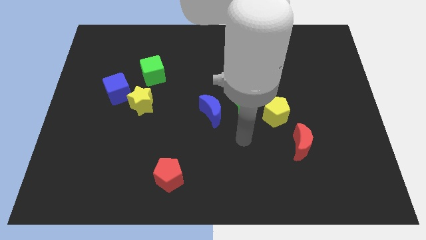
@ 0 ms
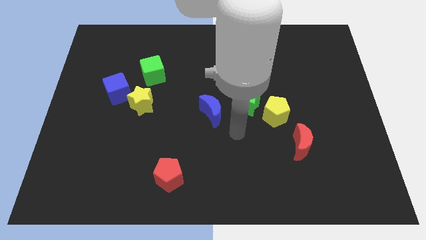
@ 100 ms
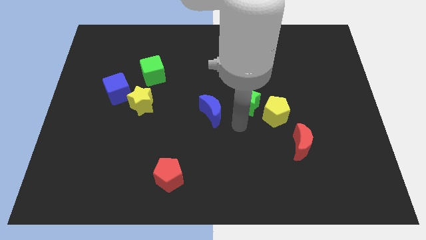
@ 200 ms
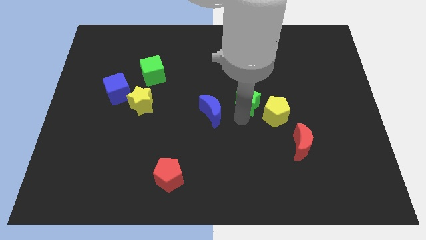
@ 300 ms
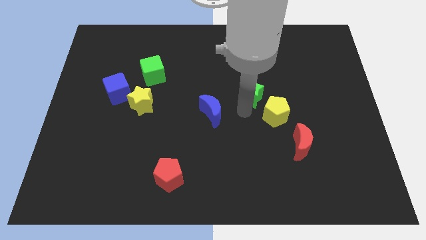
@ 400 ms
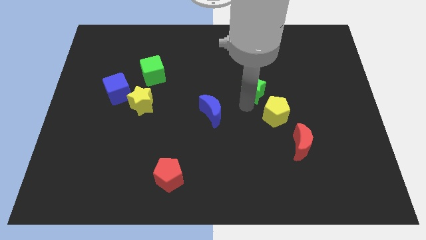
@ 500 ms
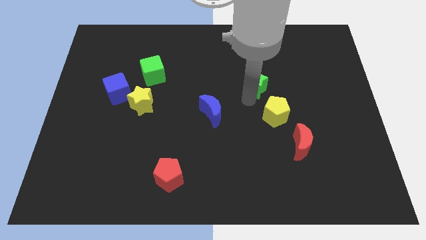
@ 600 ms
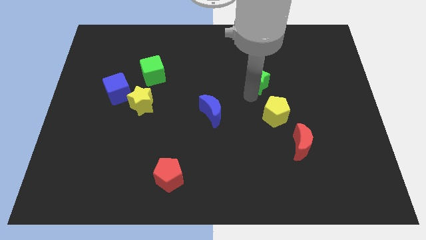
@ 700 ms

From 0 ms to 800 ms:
separate the green star from the yellow pentagon and blue moon

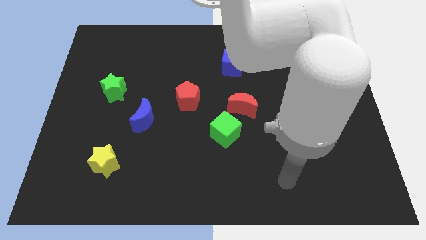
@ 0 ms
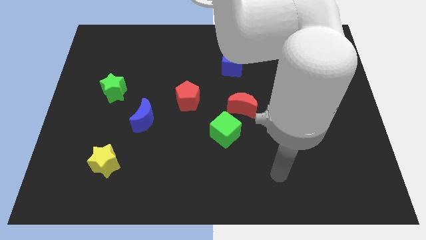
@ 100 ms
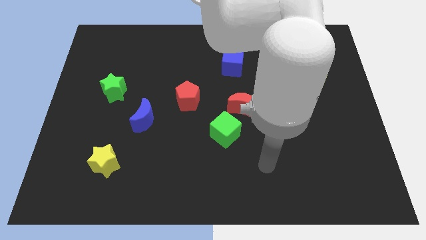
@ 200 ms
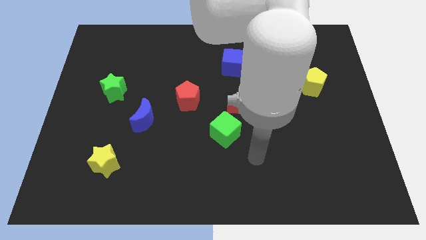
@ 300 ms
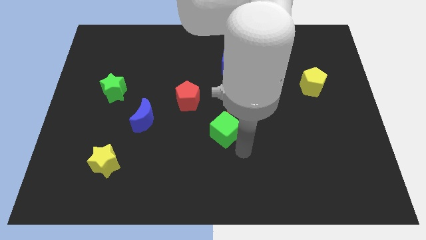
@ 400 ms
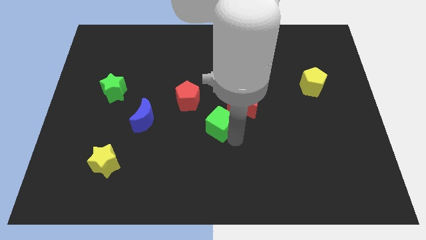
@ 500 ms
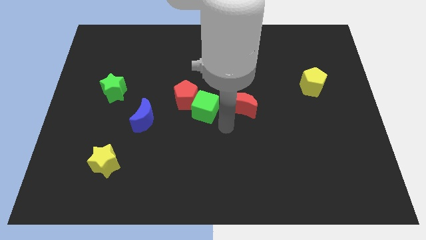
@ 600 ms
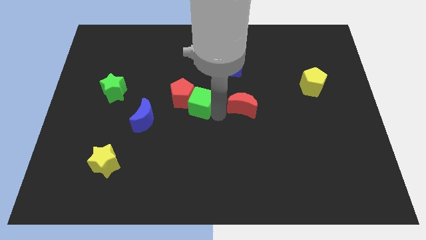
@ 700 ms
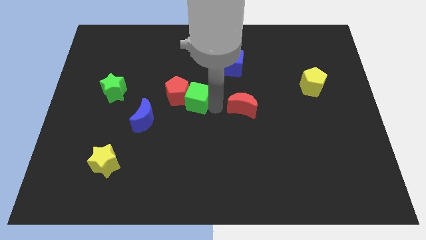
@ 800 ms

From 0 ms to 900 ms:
move the red moon away from the green cube

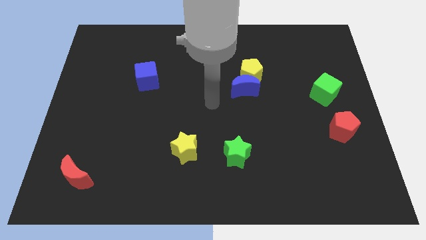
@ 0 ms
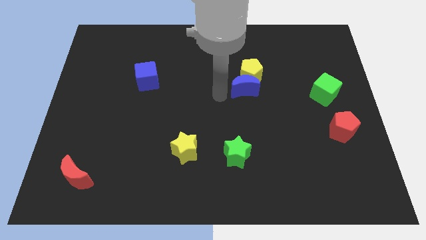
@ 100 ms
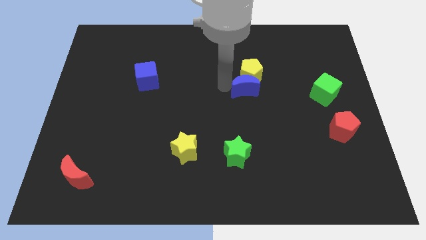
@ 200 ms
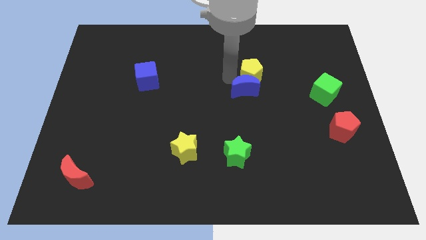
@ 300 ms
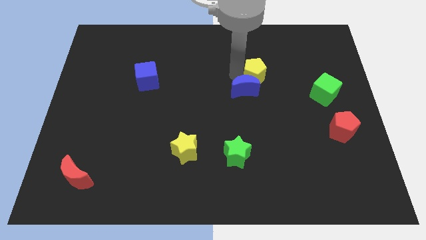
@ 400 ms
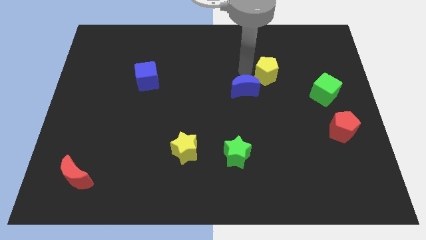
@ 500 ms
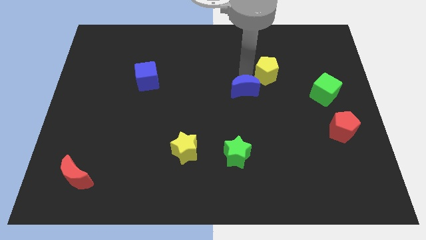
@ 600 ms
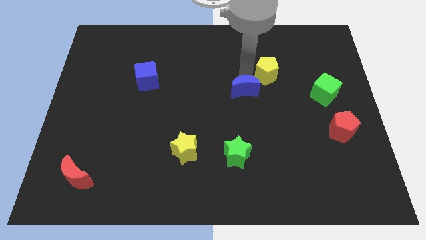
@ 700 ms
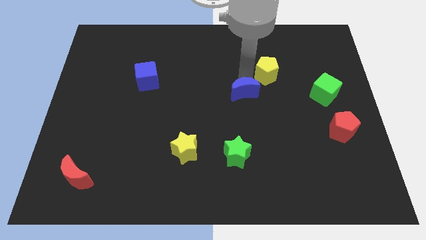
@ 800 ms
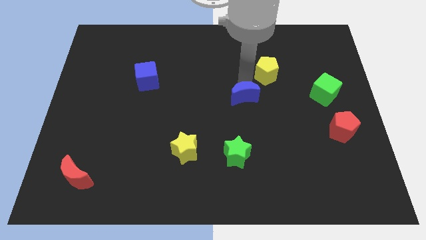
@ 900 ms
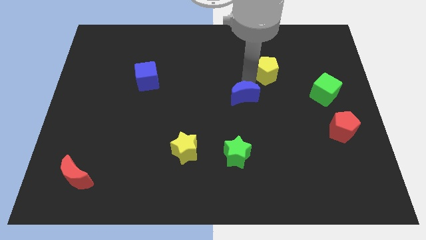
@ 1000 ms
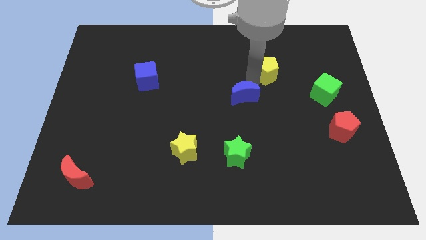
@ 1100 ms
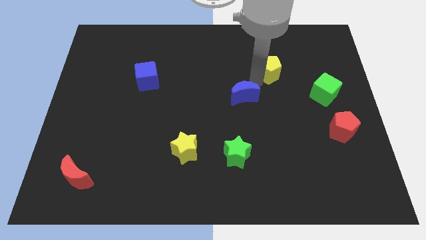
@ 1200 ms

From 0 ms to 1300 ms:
pull the blue moon apart from the yellow pentagon

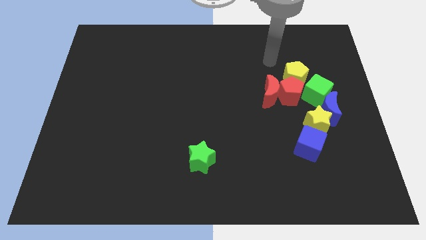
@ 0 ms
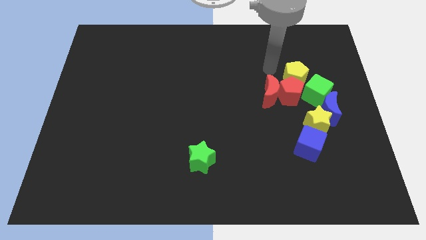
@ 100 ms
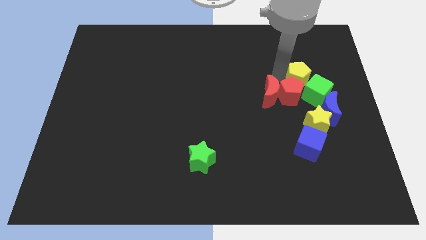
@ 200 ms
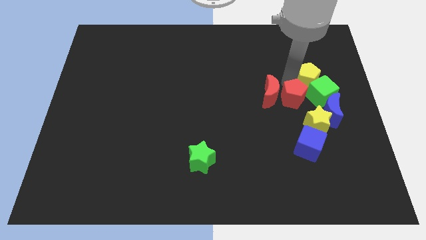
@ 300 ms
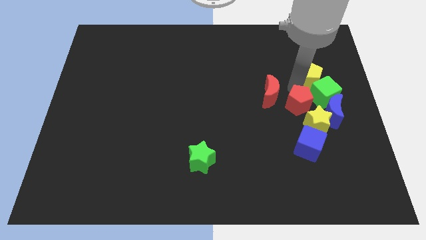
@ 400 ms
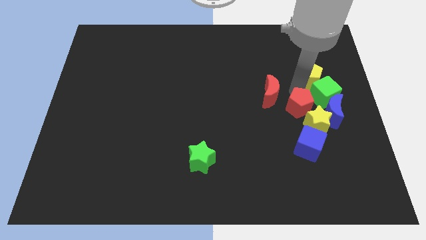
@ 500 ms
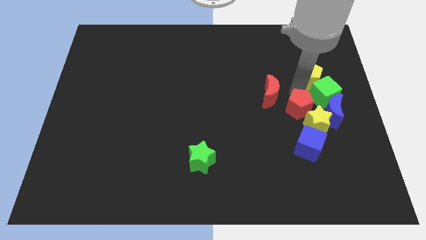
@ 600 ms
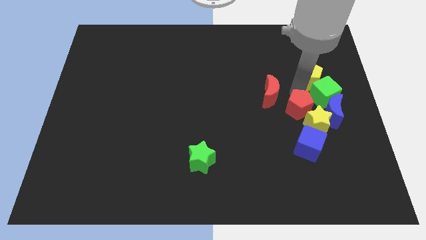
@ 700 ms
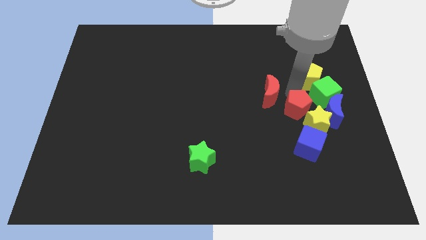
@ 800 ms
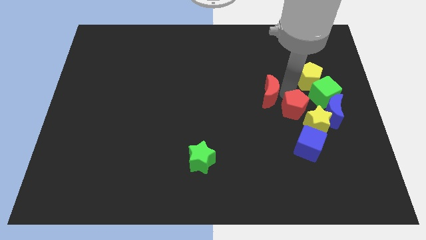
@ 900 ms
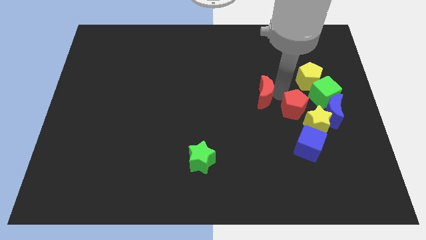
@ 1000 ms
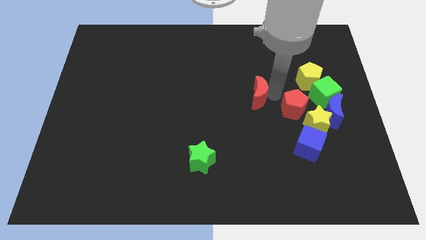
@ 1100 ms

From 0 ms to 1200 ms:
pull the red moon apart from the red pentagon and yellow pentagon

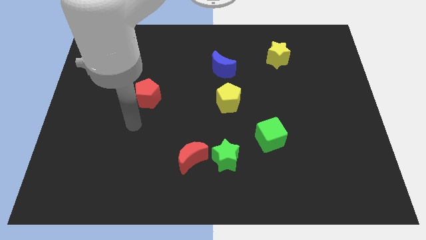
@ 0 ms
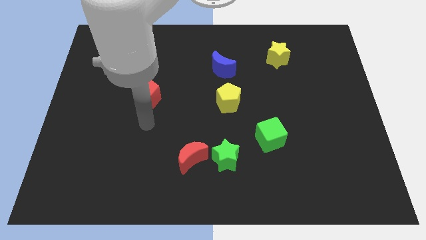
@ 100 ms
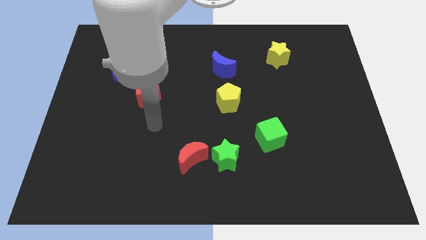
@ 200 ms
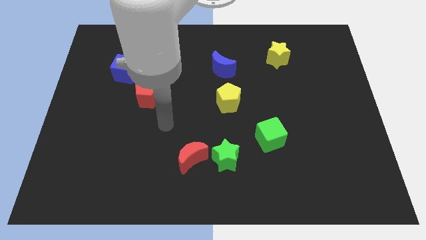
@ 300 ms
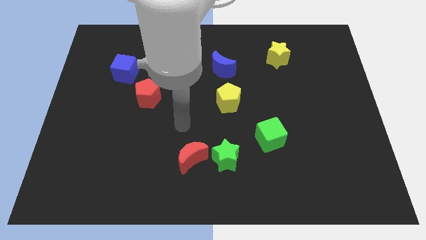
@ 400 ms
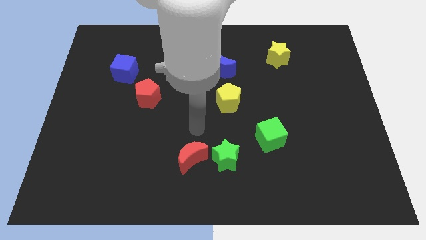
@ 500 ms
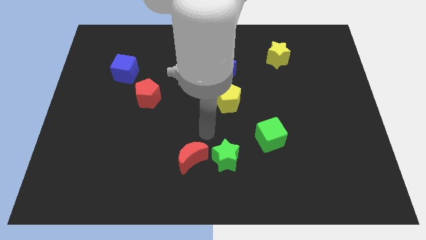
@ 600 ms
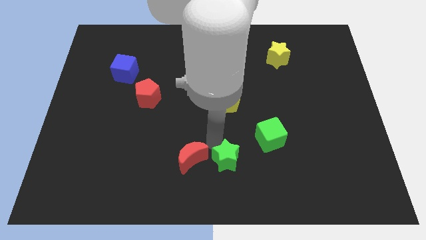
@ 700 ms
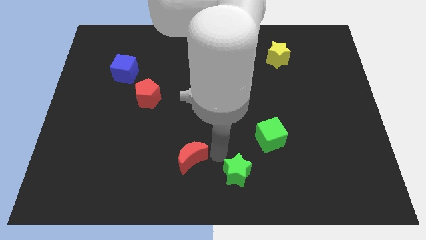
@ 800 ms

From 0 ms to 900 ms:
move the red moon away from the green star

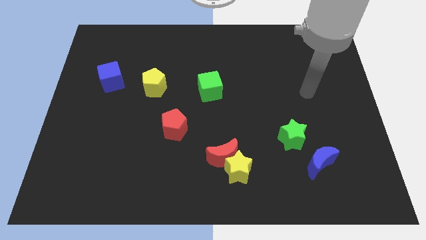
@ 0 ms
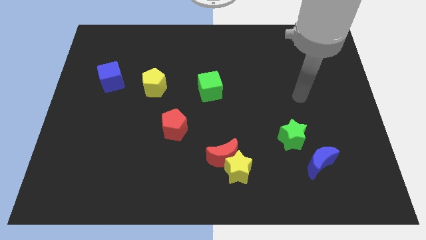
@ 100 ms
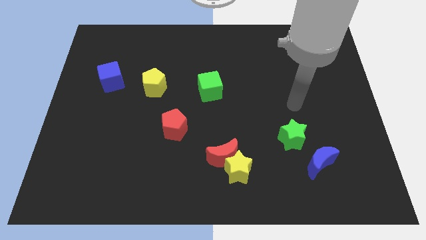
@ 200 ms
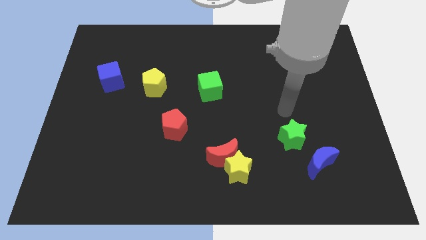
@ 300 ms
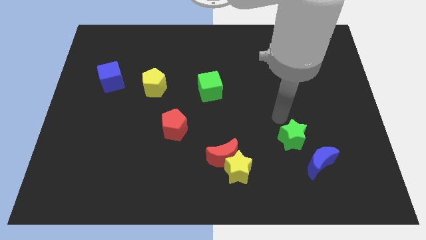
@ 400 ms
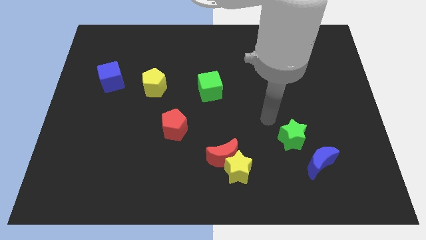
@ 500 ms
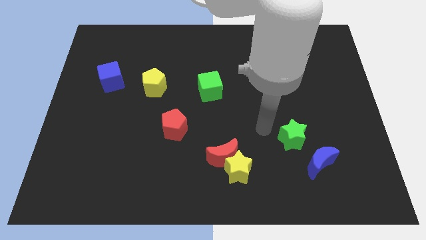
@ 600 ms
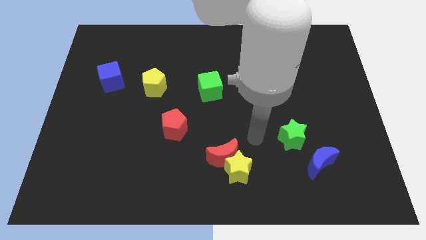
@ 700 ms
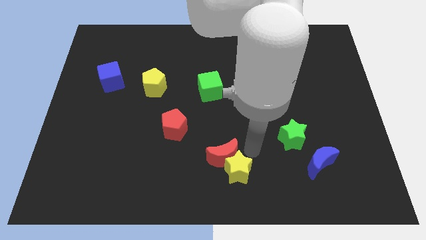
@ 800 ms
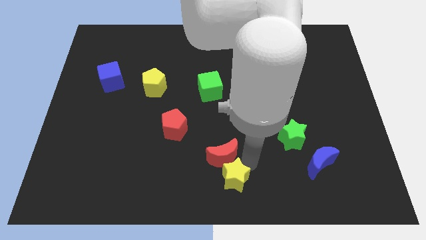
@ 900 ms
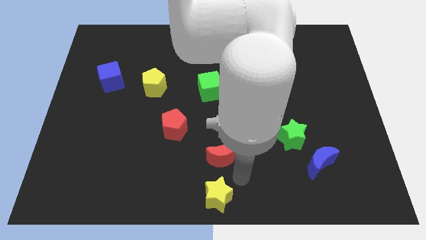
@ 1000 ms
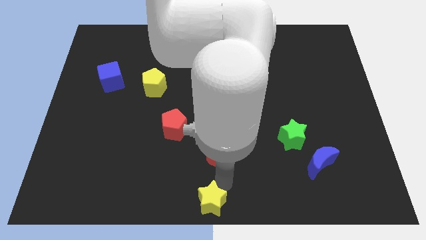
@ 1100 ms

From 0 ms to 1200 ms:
separate the red moon from the yellow star

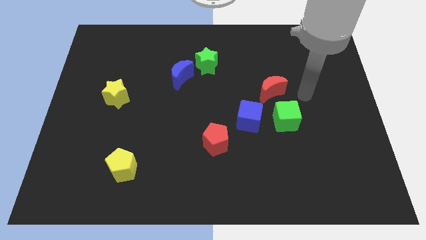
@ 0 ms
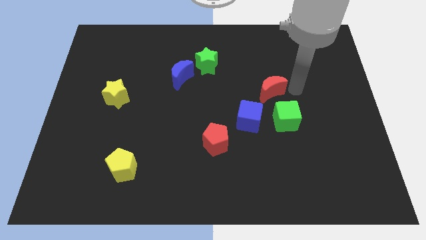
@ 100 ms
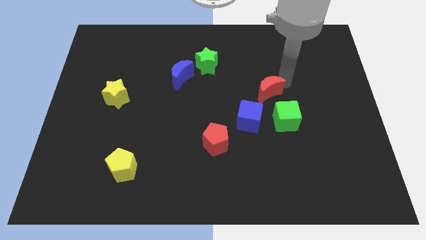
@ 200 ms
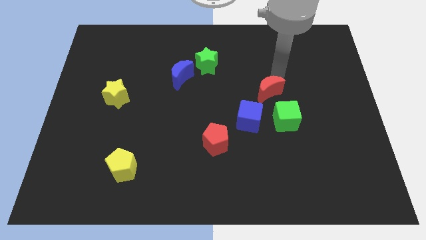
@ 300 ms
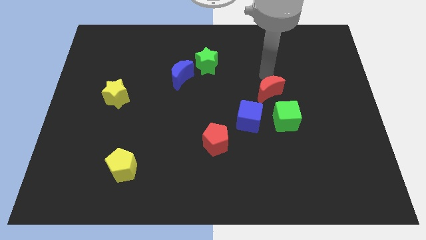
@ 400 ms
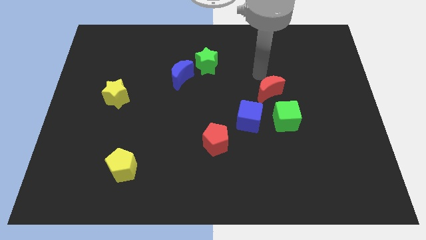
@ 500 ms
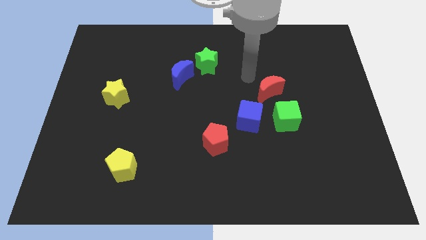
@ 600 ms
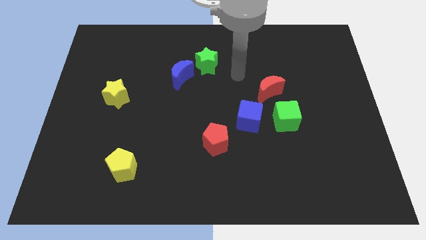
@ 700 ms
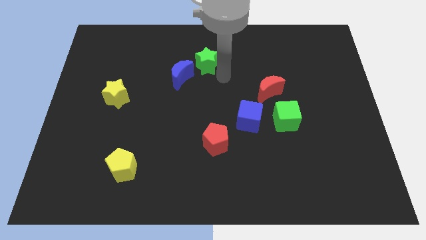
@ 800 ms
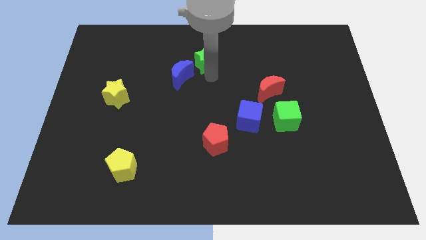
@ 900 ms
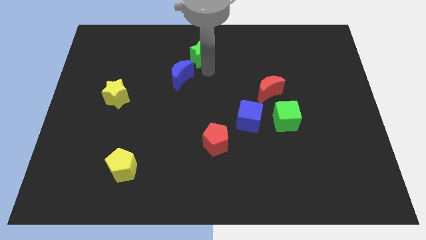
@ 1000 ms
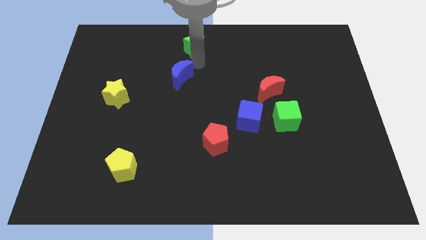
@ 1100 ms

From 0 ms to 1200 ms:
separate the blue moon from the green star

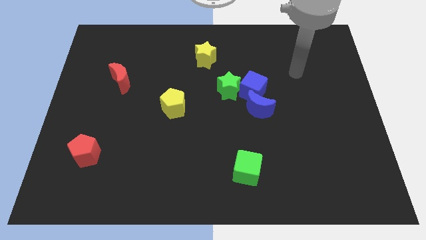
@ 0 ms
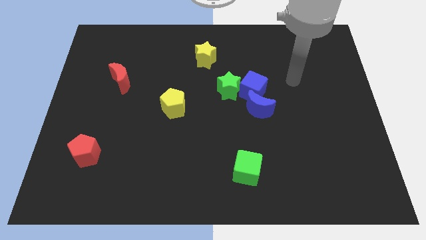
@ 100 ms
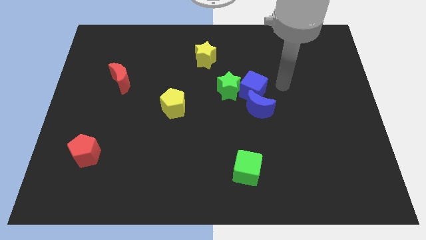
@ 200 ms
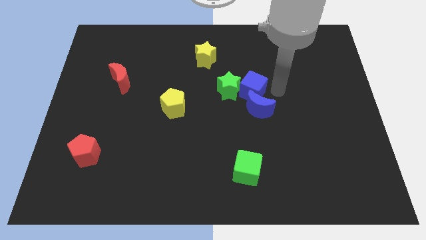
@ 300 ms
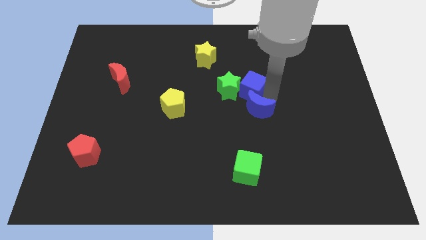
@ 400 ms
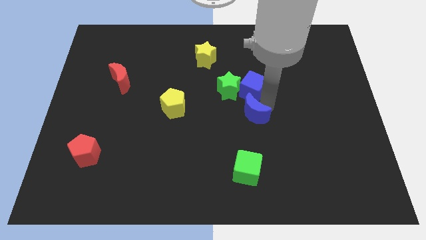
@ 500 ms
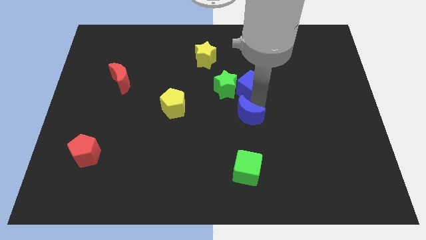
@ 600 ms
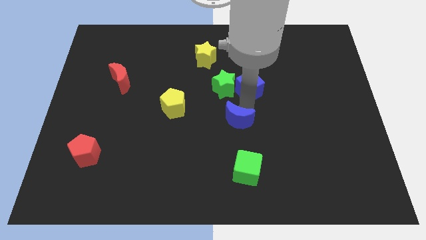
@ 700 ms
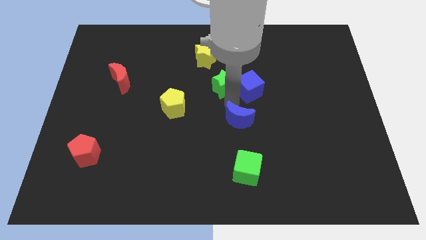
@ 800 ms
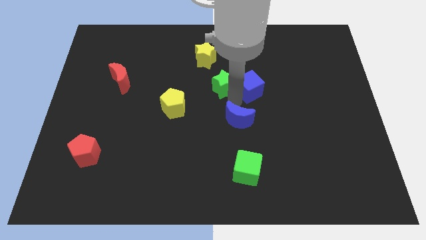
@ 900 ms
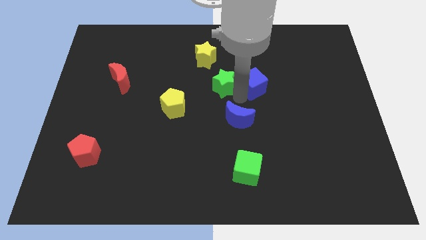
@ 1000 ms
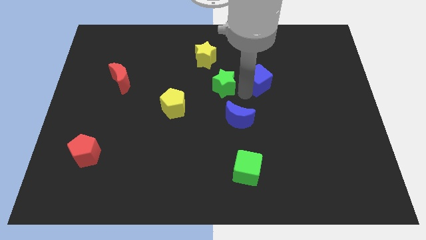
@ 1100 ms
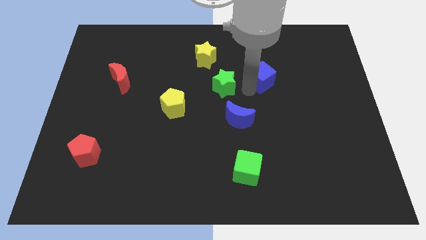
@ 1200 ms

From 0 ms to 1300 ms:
separate the blue cube from the blue moon and green star

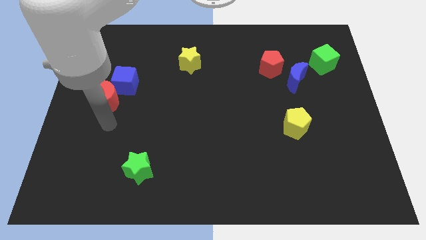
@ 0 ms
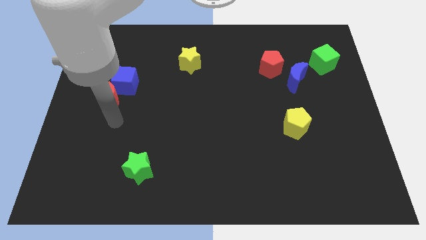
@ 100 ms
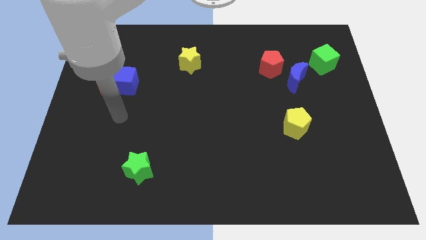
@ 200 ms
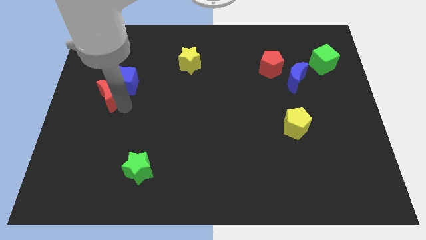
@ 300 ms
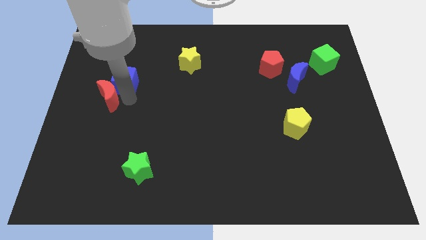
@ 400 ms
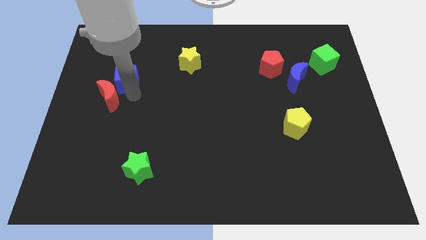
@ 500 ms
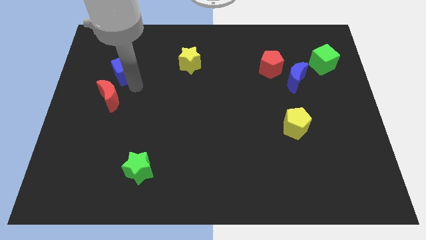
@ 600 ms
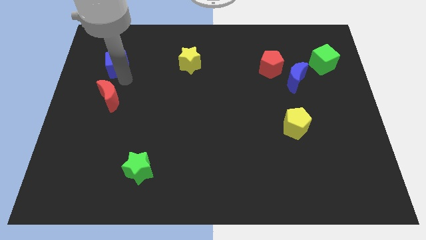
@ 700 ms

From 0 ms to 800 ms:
separate the red moon from the blue cube
